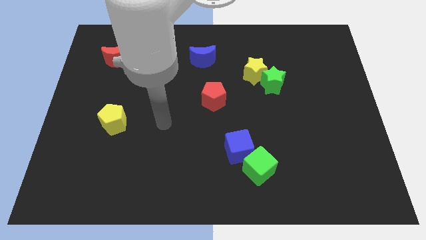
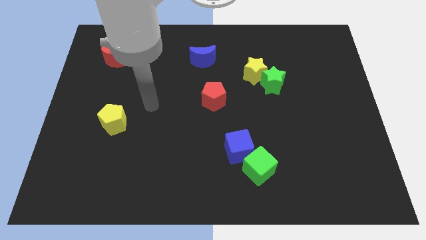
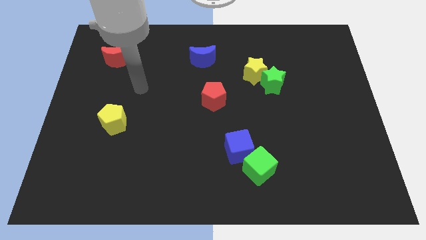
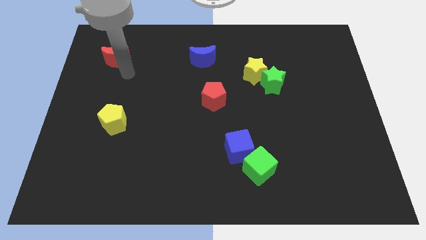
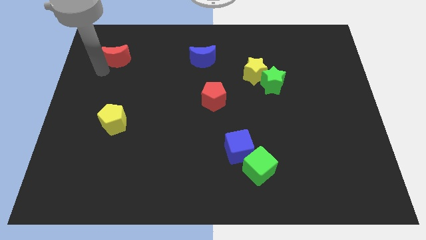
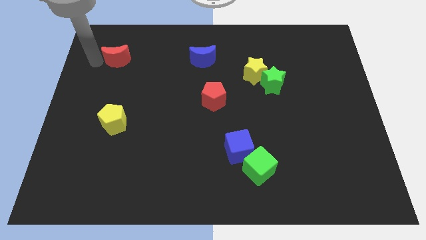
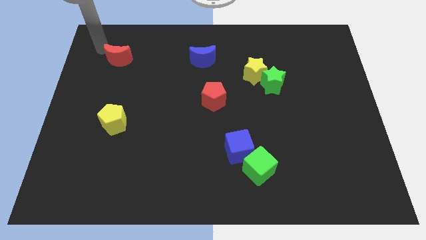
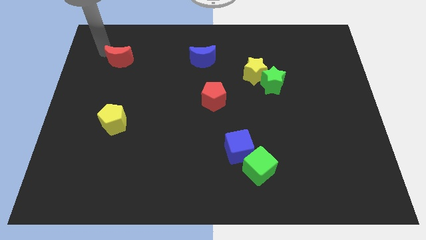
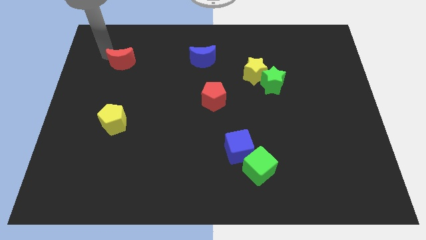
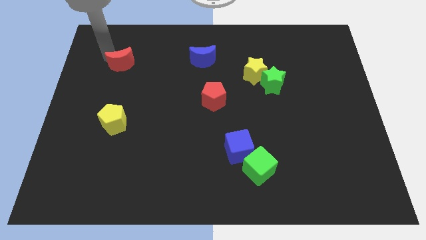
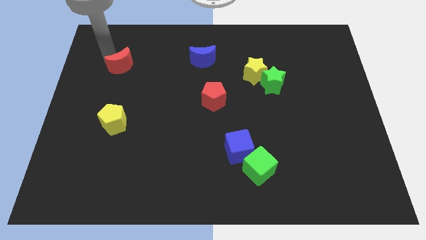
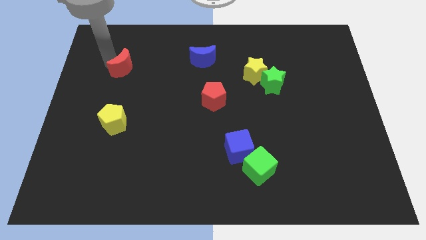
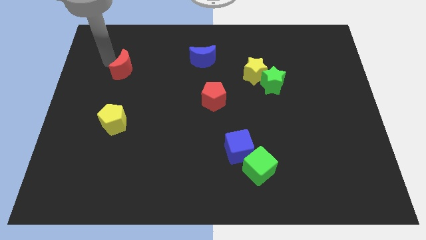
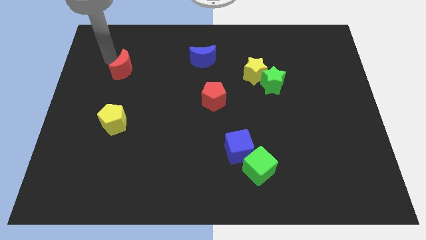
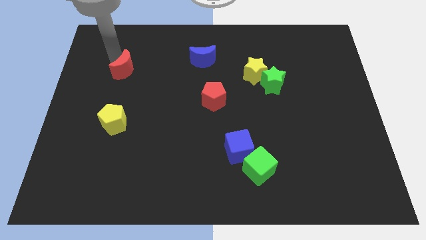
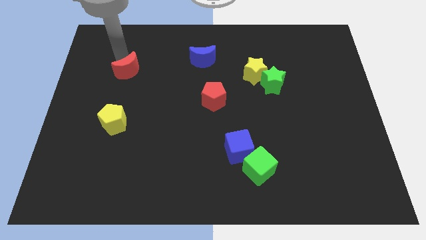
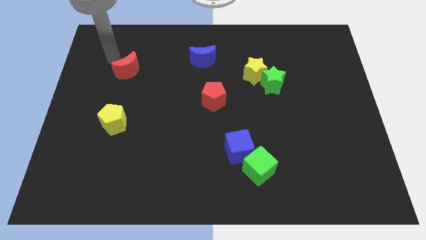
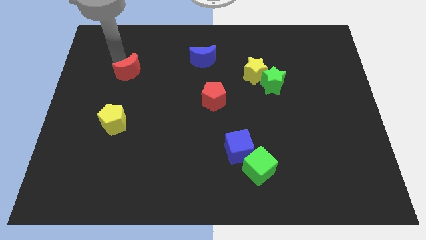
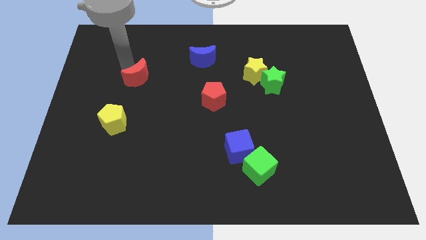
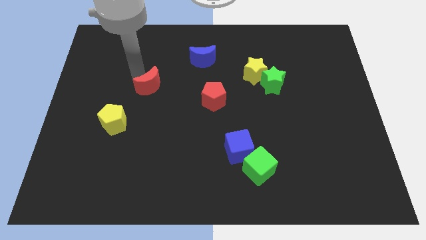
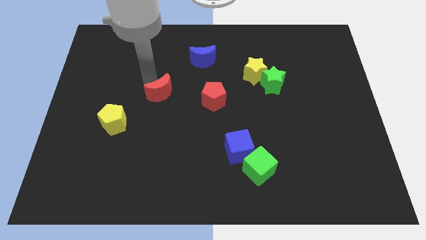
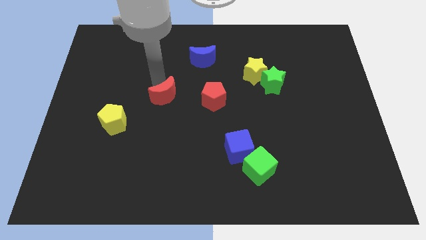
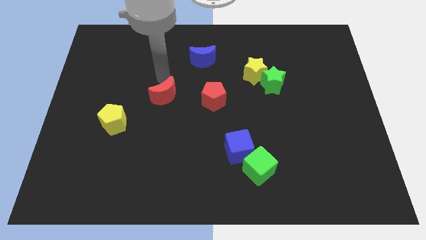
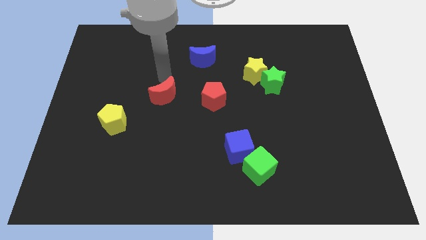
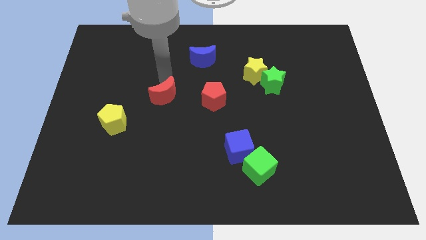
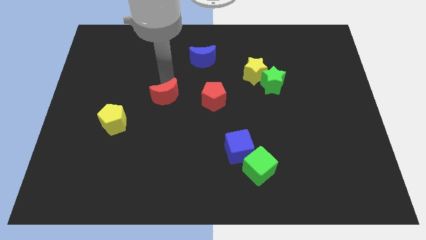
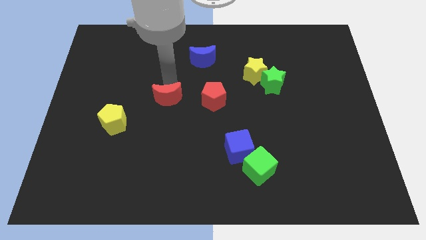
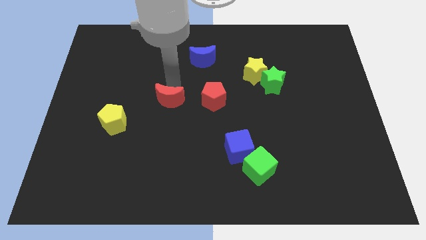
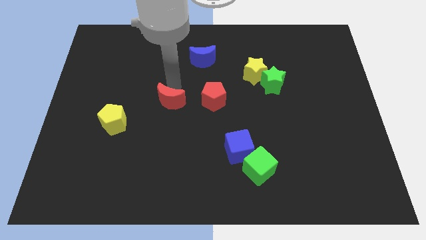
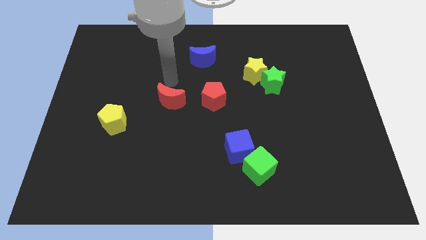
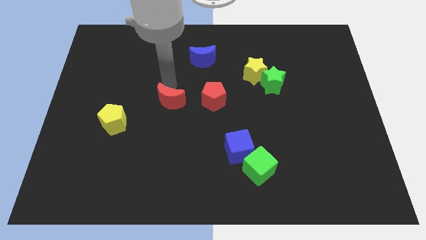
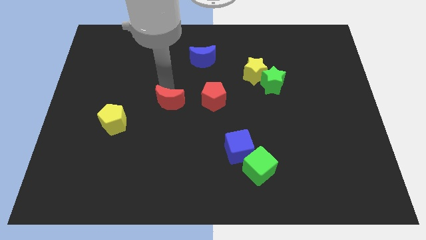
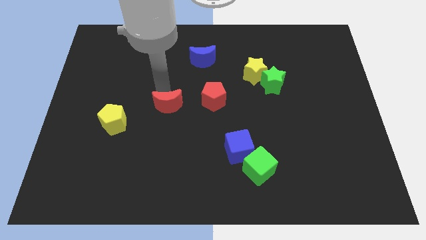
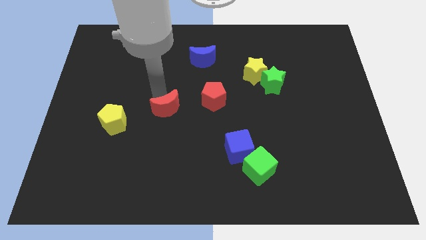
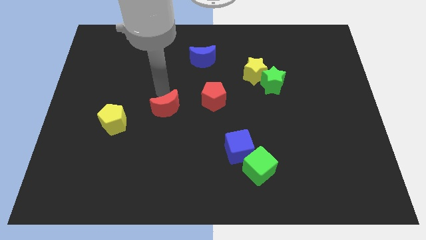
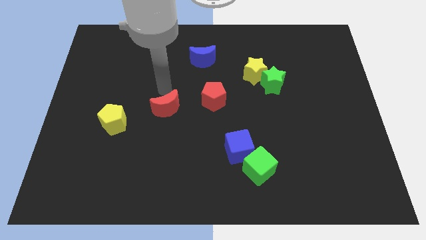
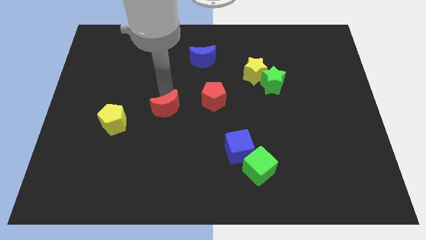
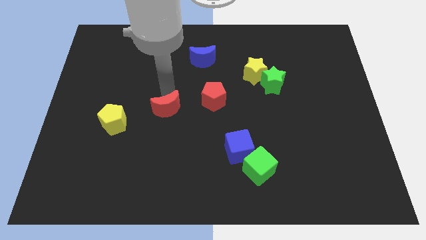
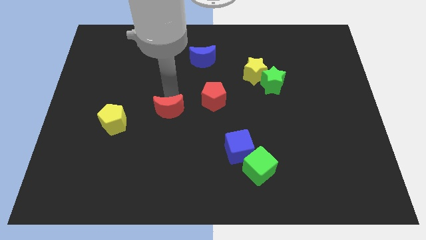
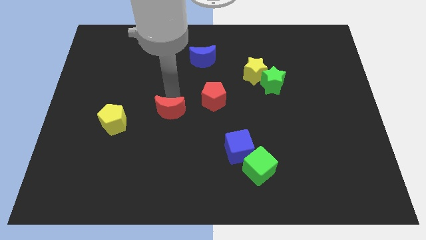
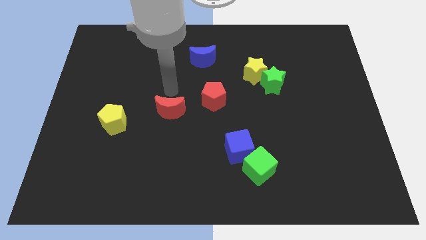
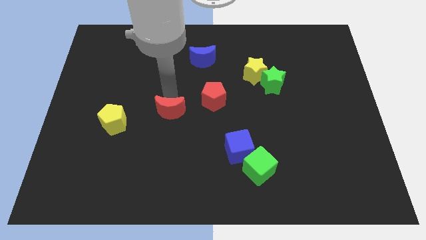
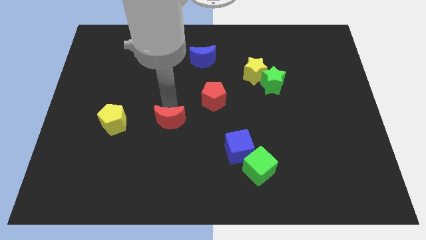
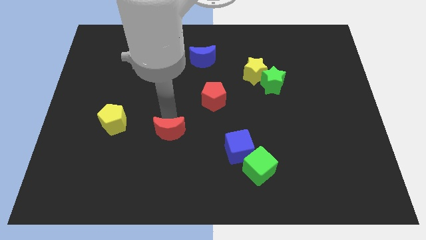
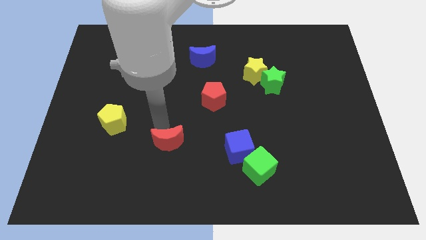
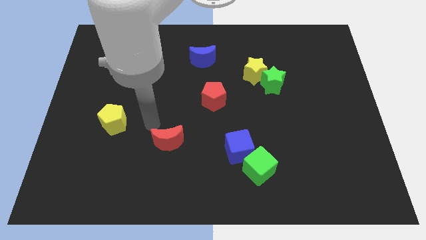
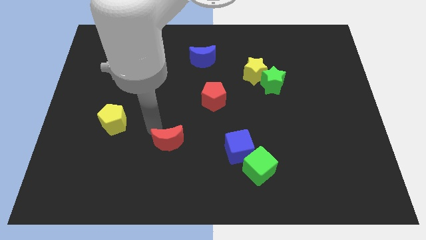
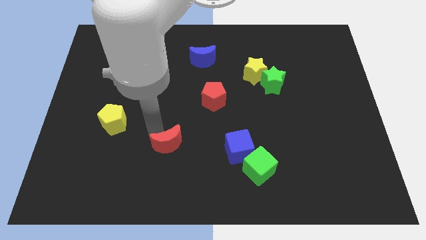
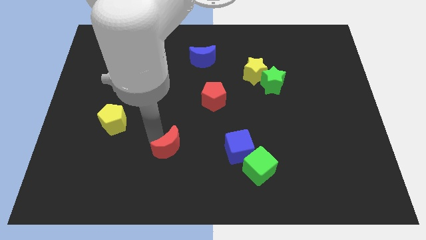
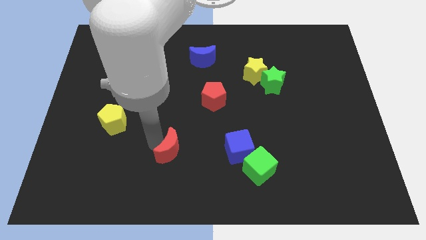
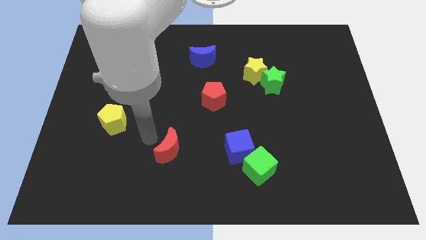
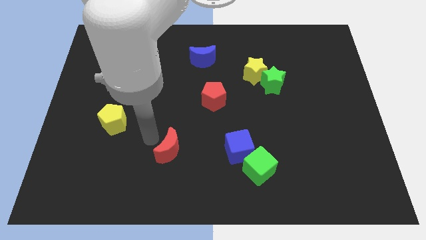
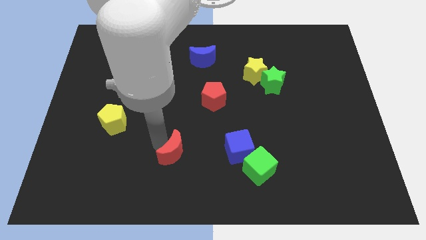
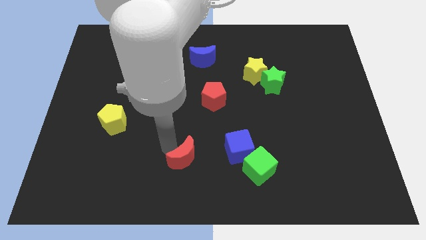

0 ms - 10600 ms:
move the red moon to the bottom side

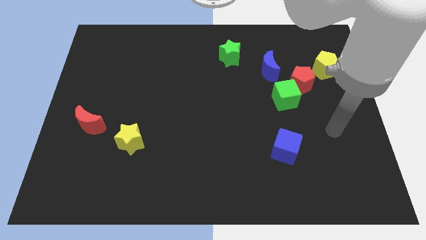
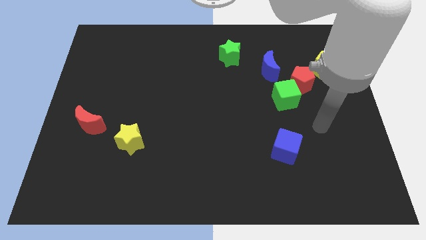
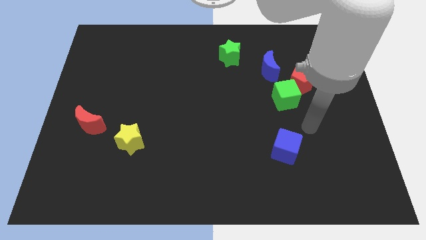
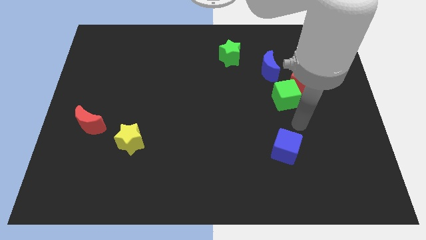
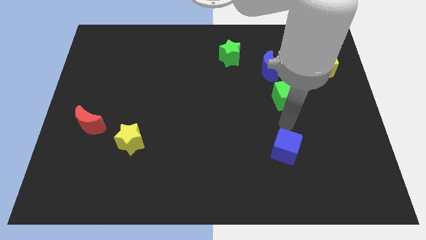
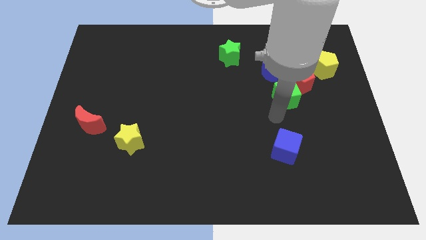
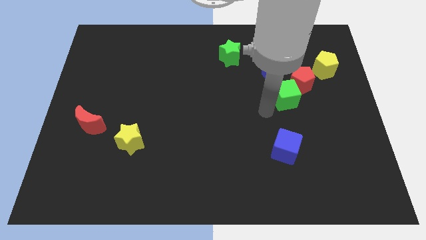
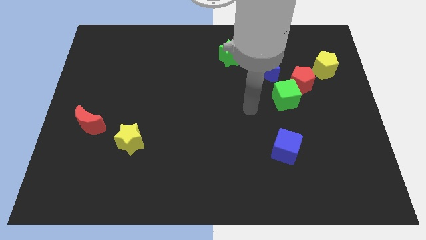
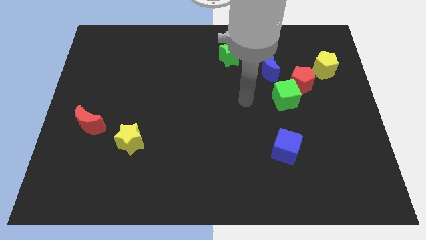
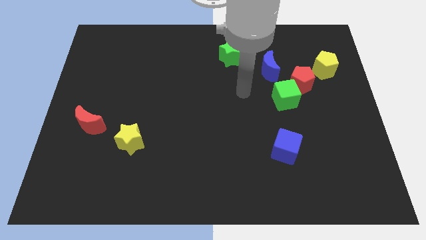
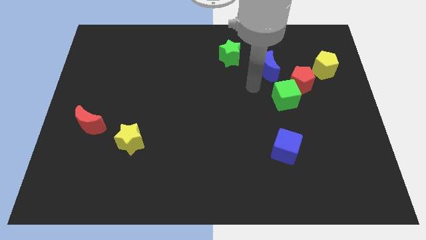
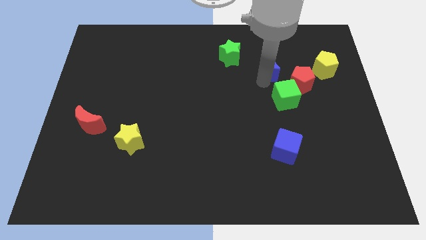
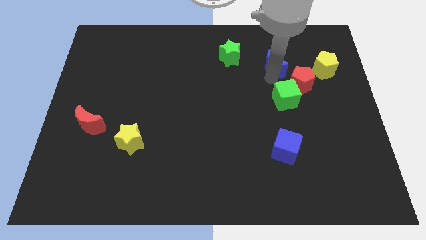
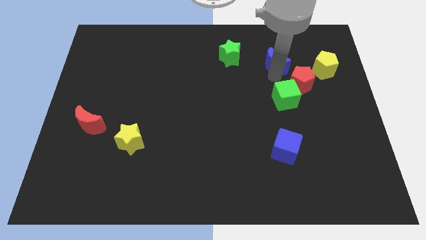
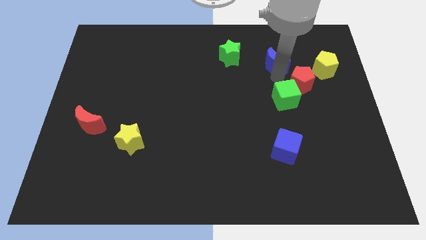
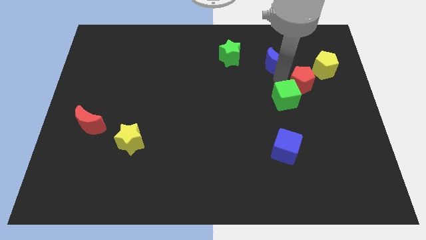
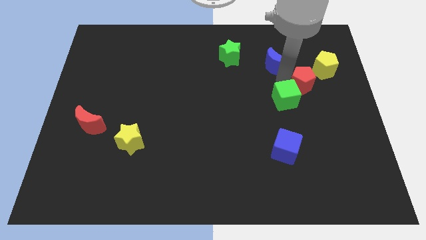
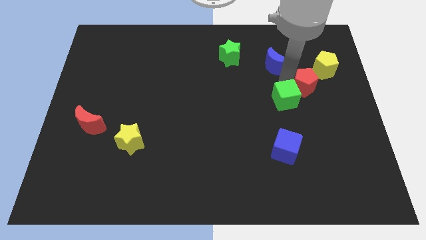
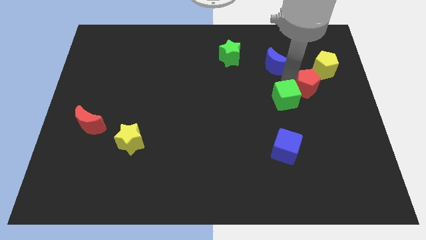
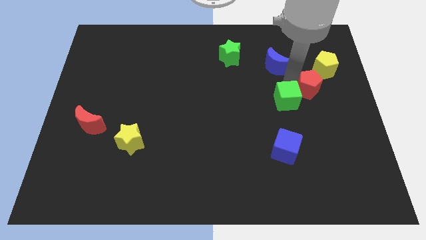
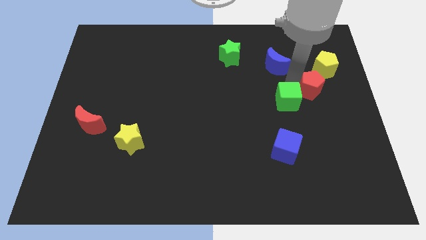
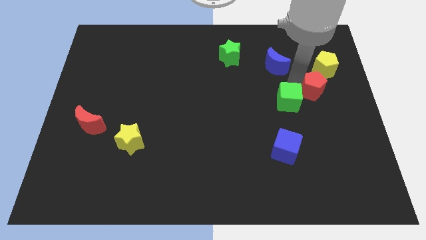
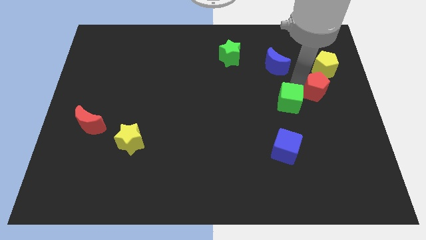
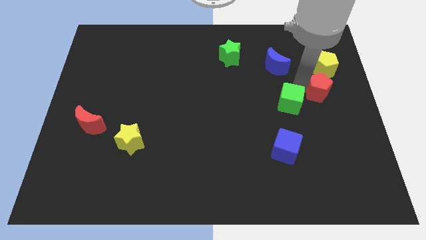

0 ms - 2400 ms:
put the red pentagon to the right side of the board
